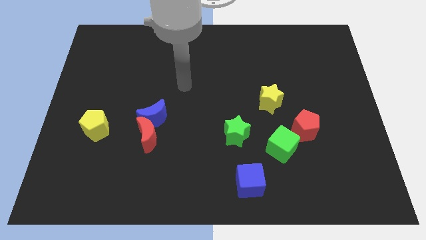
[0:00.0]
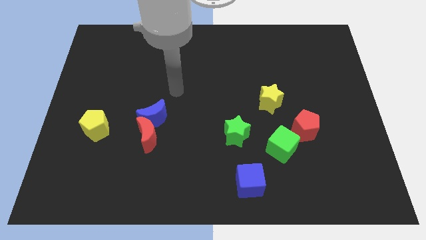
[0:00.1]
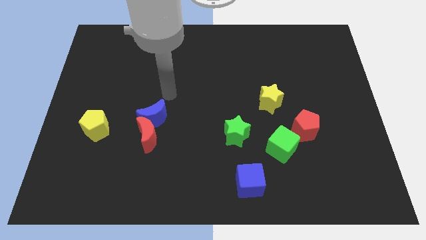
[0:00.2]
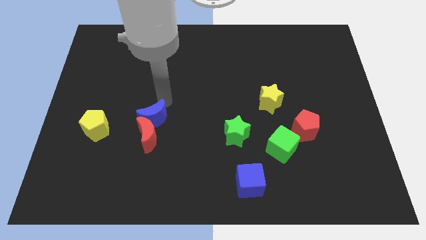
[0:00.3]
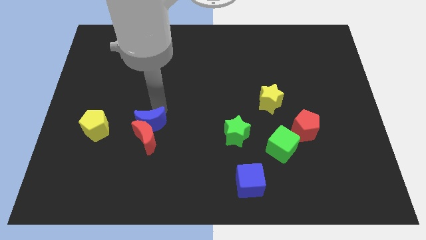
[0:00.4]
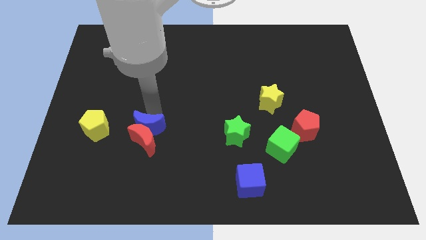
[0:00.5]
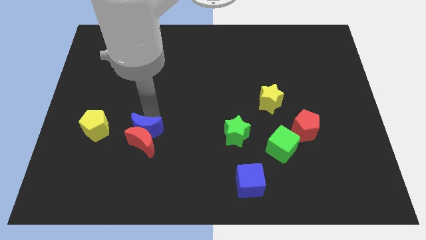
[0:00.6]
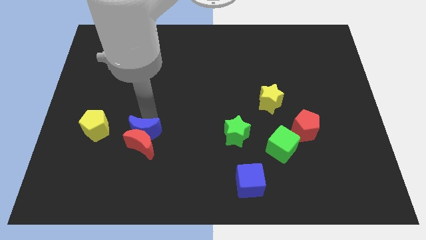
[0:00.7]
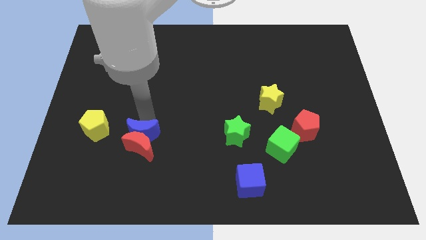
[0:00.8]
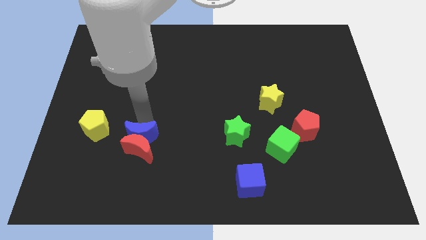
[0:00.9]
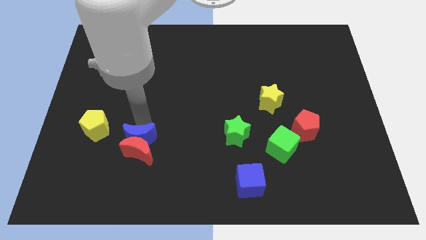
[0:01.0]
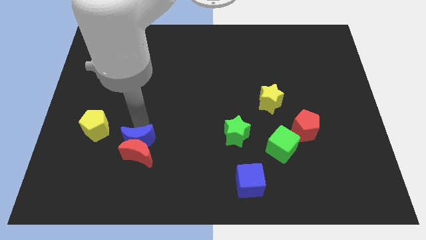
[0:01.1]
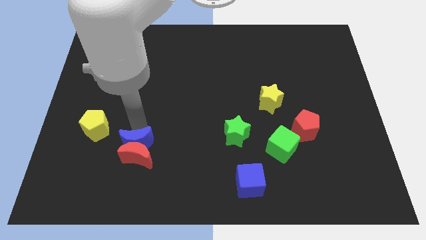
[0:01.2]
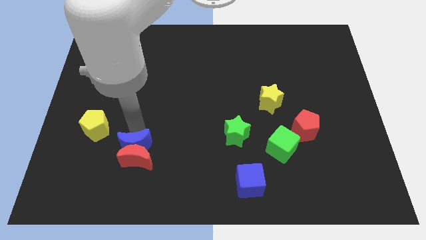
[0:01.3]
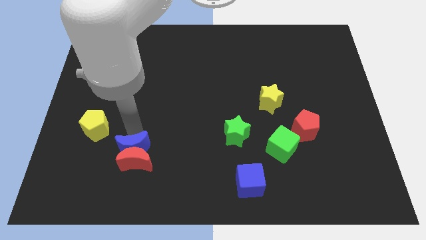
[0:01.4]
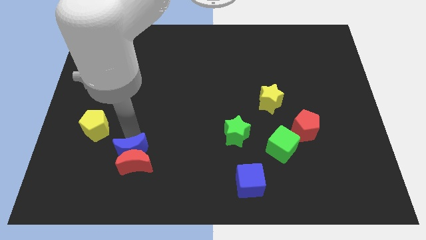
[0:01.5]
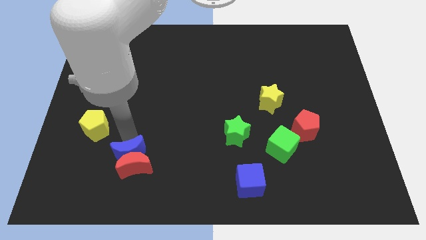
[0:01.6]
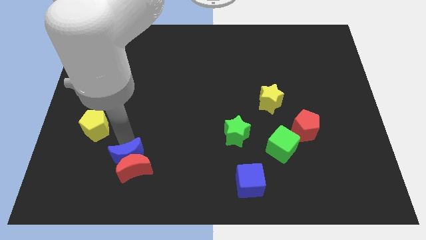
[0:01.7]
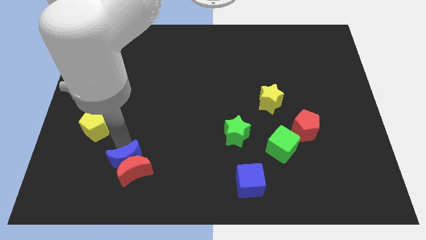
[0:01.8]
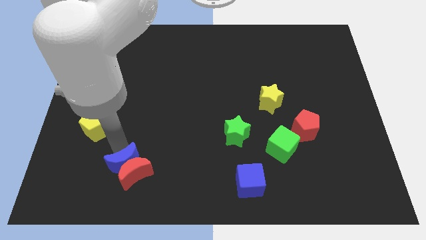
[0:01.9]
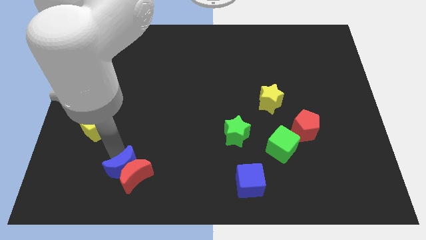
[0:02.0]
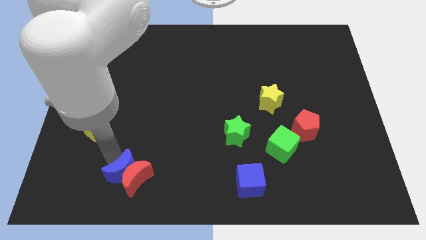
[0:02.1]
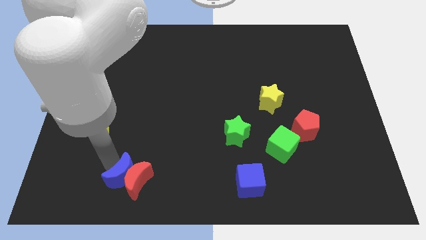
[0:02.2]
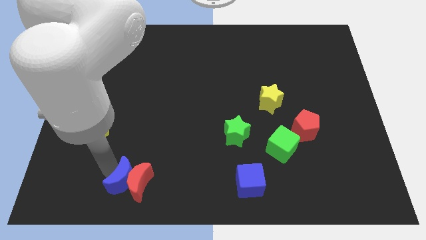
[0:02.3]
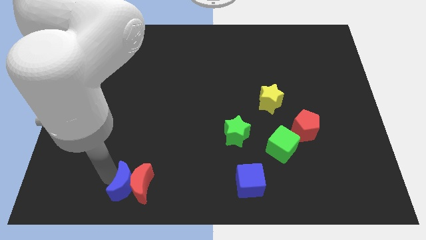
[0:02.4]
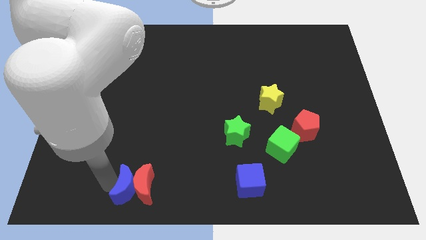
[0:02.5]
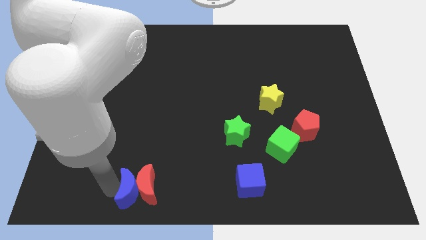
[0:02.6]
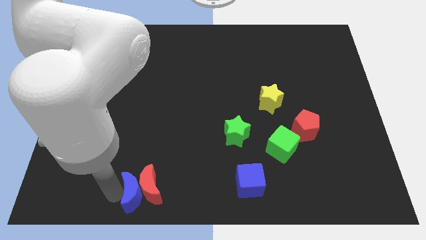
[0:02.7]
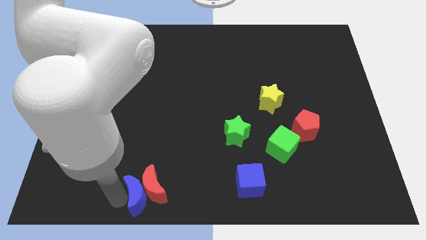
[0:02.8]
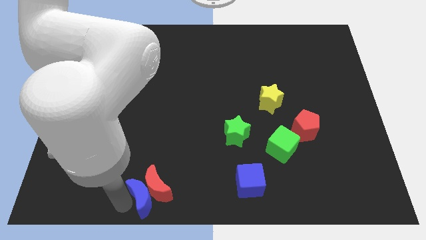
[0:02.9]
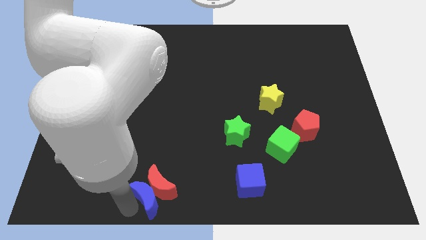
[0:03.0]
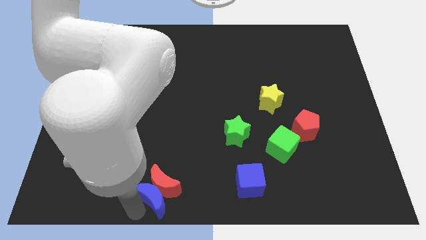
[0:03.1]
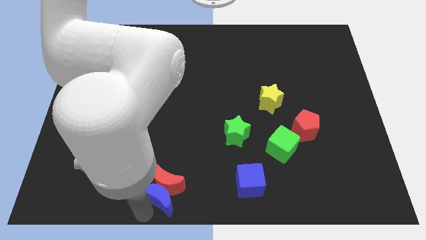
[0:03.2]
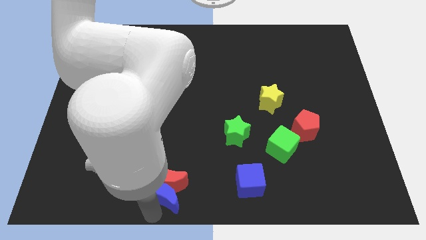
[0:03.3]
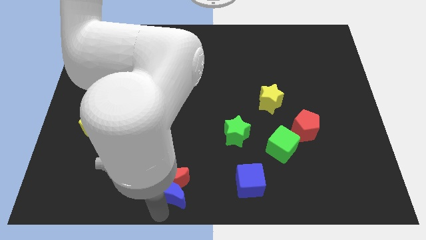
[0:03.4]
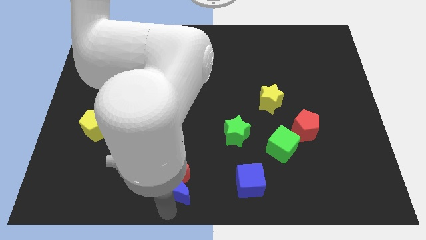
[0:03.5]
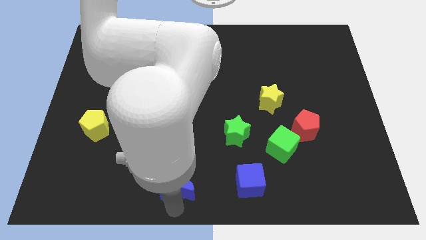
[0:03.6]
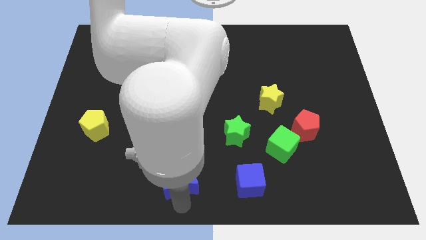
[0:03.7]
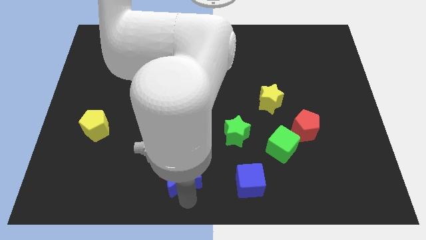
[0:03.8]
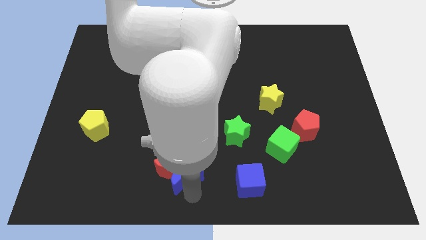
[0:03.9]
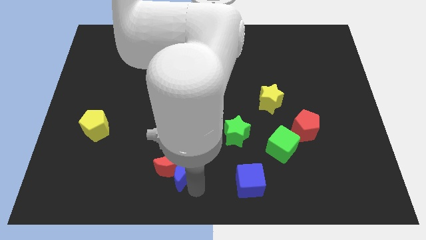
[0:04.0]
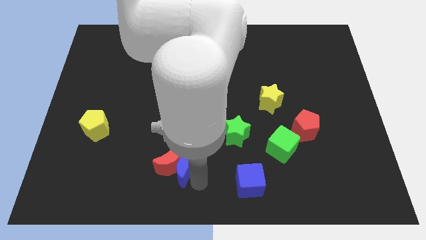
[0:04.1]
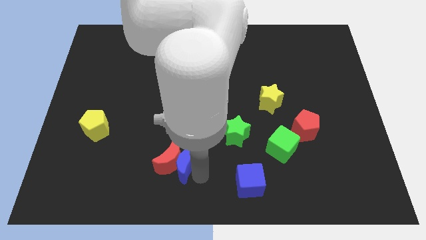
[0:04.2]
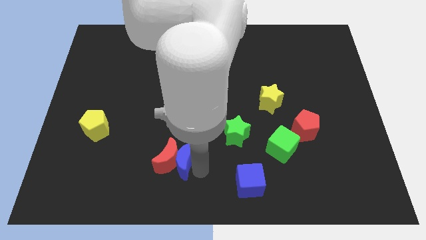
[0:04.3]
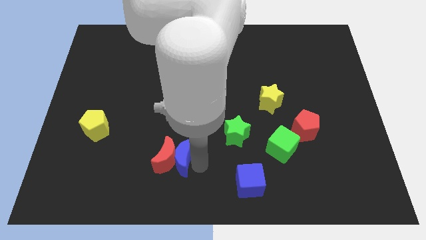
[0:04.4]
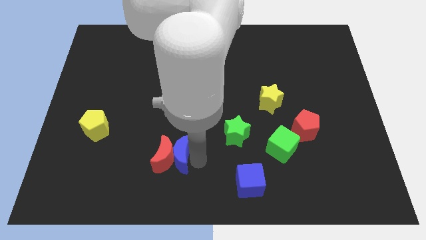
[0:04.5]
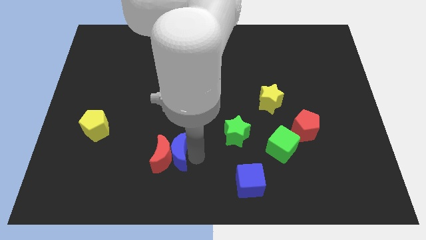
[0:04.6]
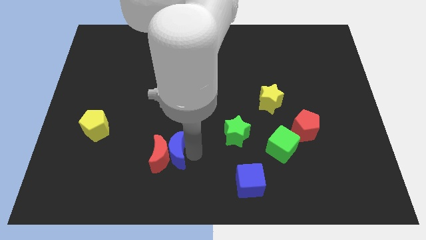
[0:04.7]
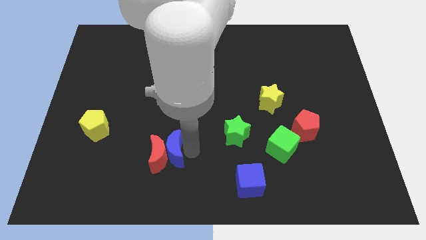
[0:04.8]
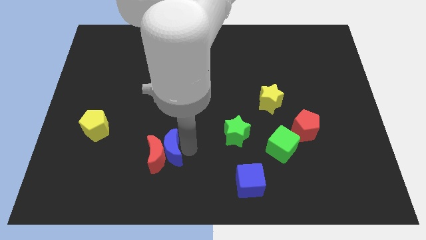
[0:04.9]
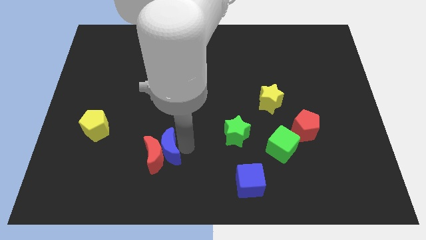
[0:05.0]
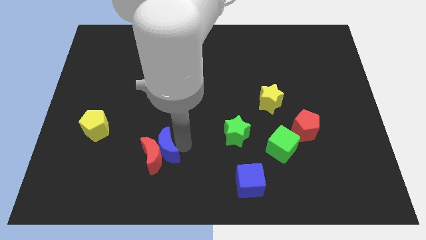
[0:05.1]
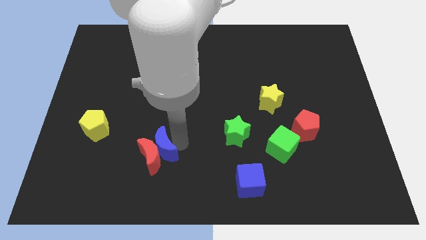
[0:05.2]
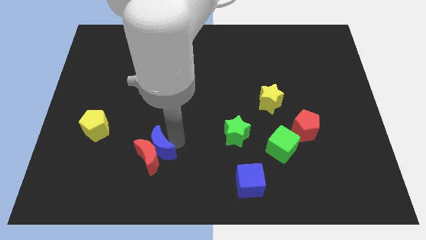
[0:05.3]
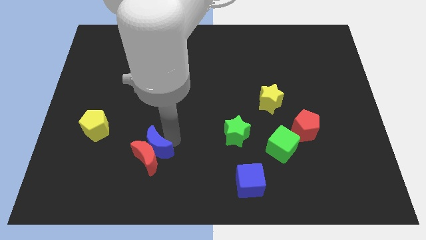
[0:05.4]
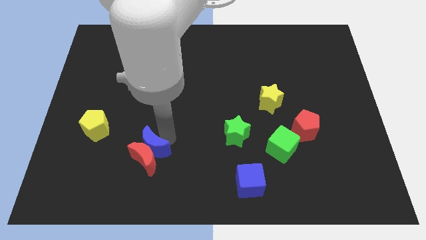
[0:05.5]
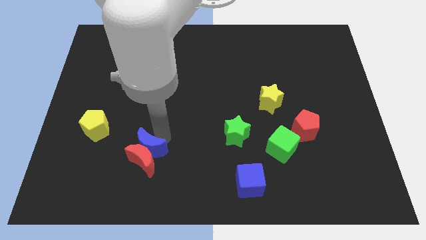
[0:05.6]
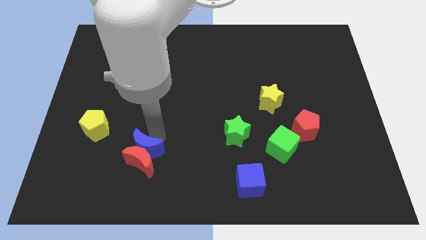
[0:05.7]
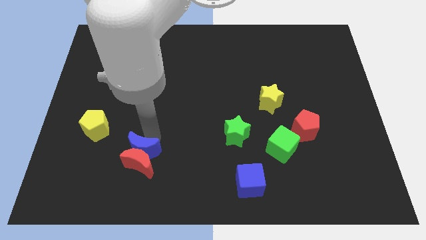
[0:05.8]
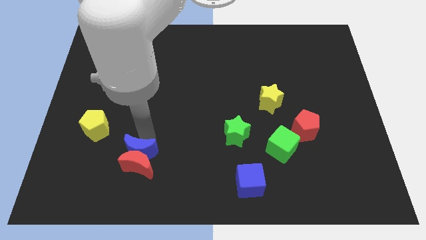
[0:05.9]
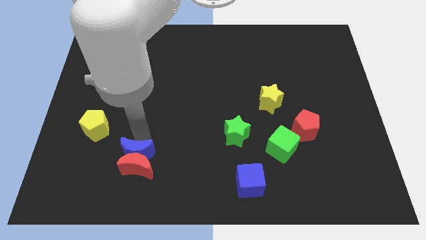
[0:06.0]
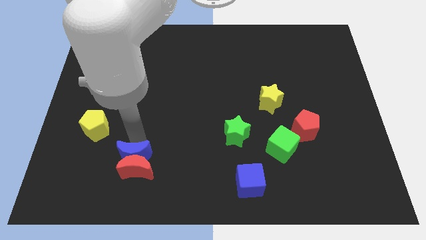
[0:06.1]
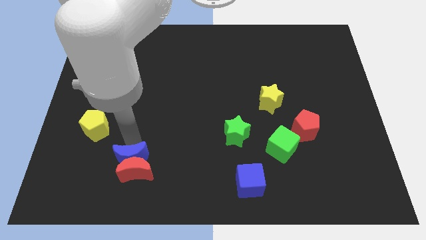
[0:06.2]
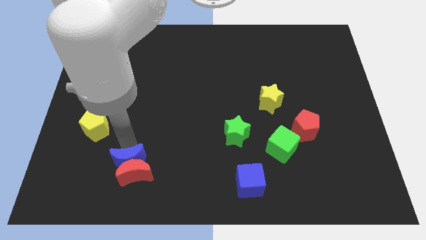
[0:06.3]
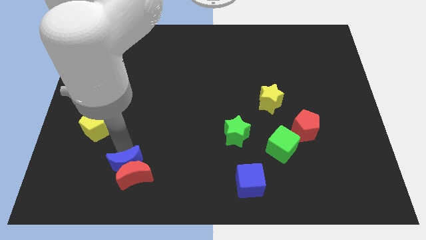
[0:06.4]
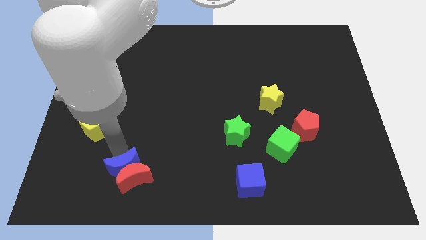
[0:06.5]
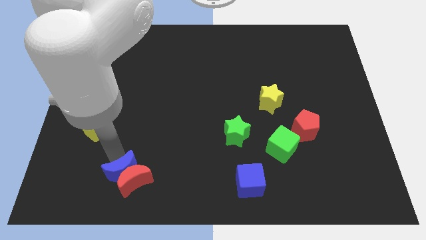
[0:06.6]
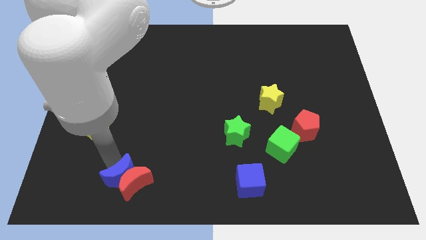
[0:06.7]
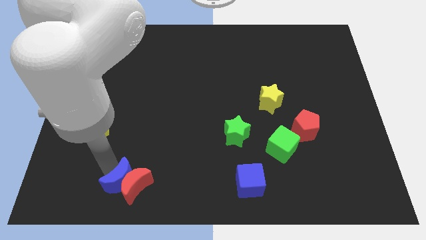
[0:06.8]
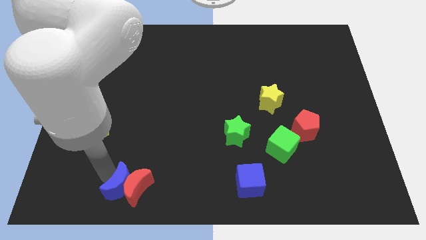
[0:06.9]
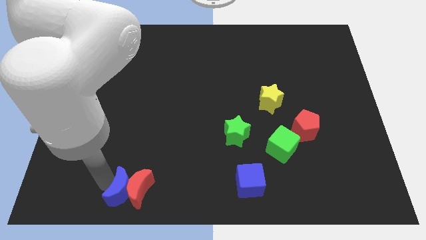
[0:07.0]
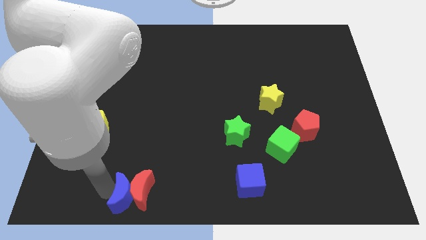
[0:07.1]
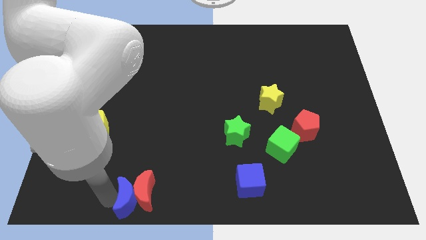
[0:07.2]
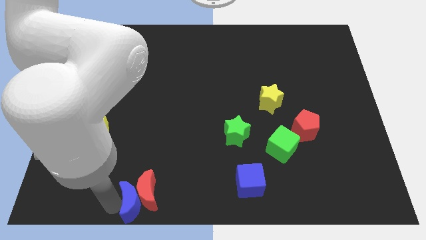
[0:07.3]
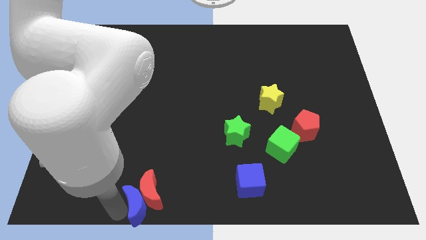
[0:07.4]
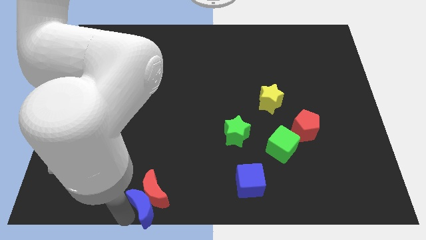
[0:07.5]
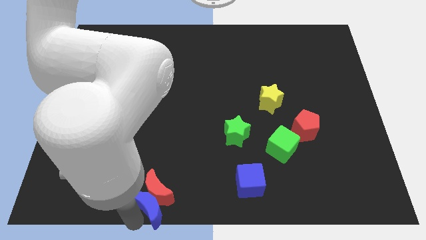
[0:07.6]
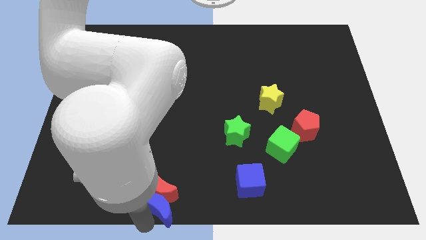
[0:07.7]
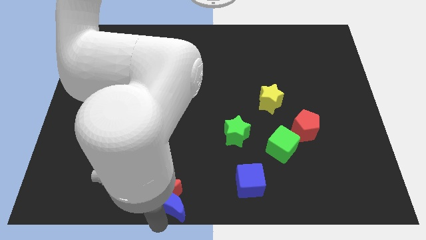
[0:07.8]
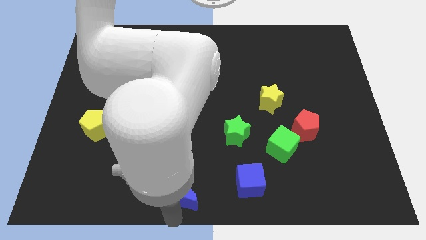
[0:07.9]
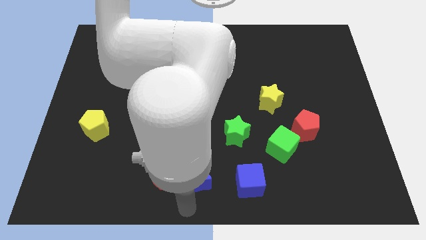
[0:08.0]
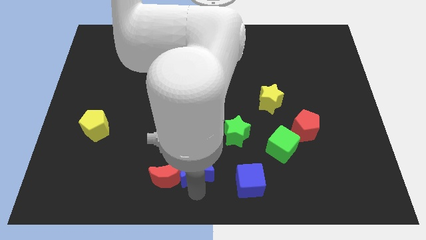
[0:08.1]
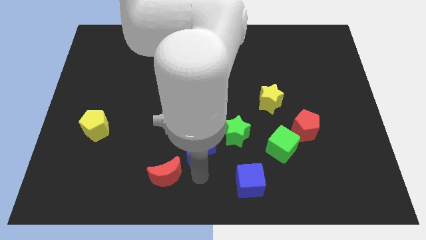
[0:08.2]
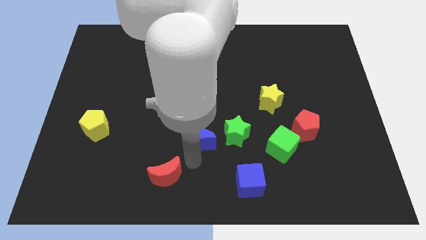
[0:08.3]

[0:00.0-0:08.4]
move the red moon away from the blue moon

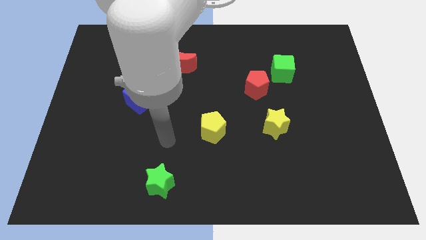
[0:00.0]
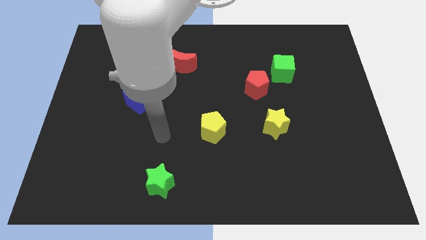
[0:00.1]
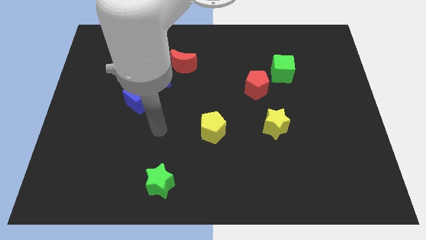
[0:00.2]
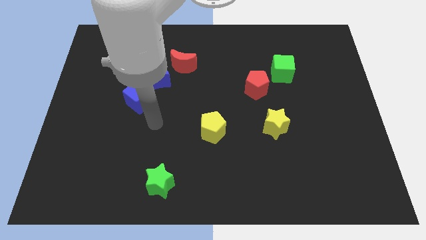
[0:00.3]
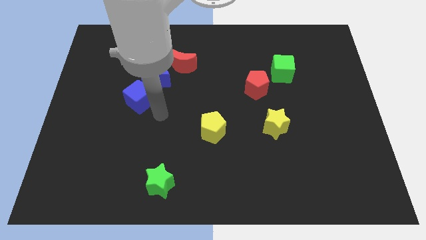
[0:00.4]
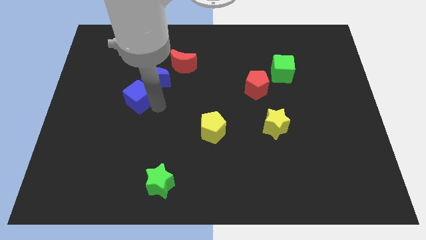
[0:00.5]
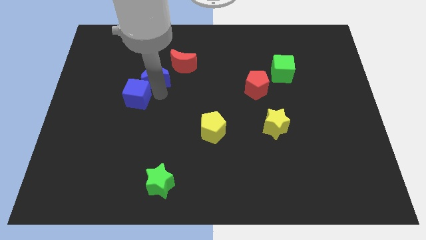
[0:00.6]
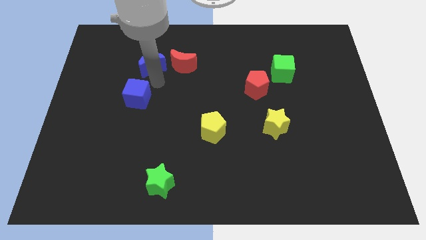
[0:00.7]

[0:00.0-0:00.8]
separate the blue cube from the blue moon

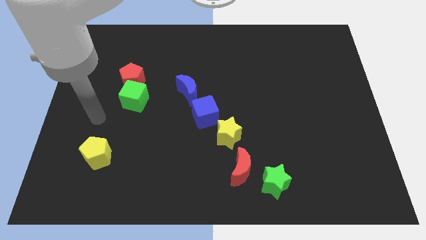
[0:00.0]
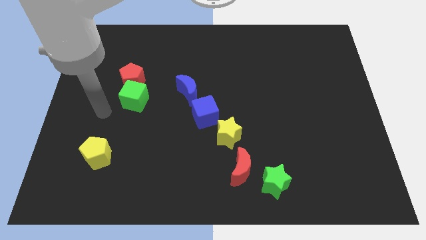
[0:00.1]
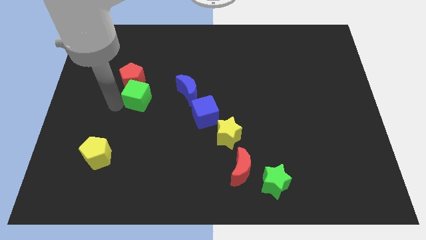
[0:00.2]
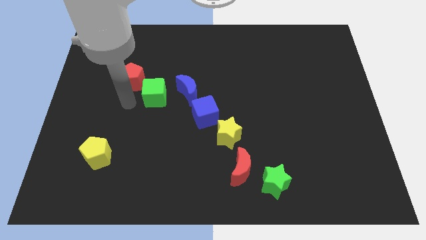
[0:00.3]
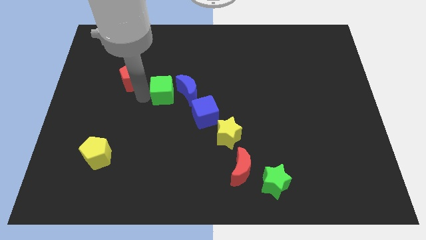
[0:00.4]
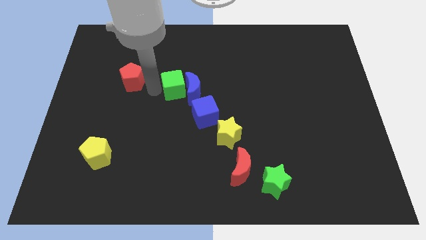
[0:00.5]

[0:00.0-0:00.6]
pull the red pentagon apart from the green cube
